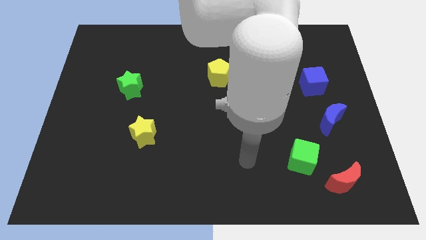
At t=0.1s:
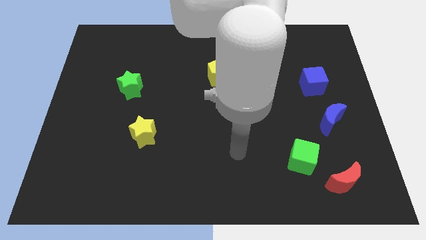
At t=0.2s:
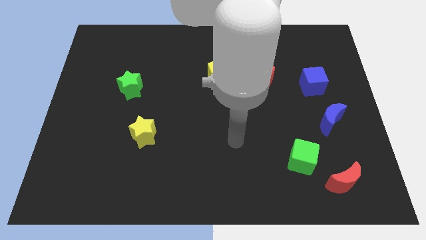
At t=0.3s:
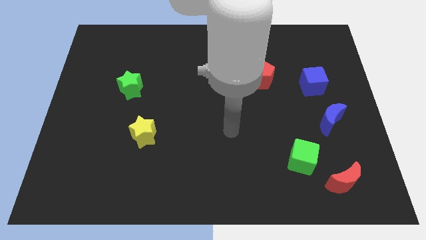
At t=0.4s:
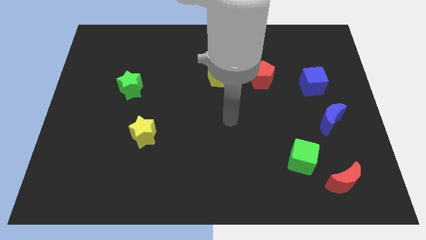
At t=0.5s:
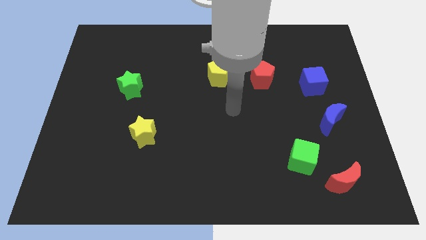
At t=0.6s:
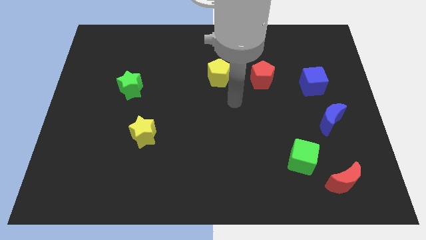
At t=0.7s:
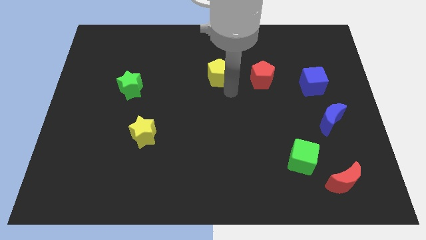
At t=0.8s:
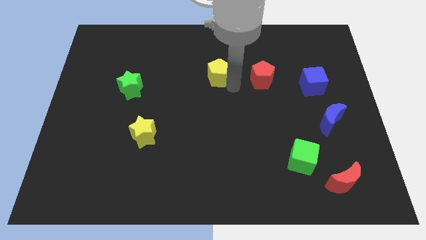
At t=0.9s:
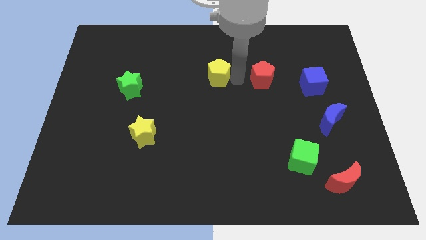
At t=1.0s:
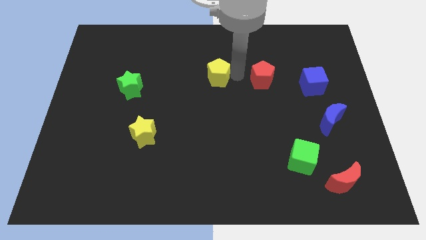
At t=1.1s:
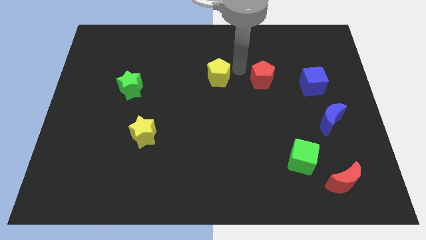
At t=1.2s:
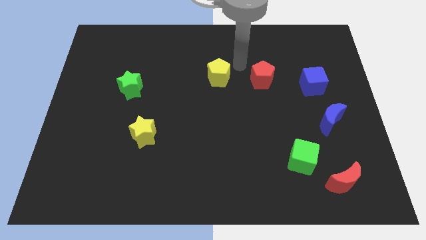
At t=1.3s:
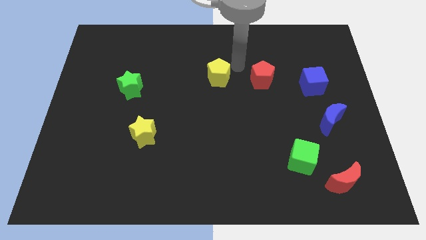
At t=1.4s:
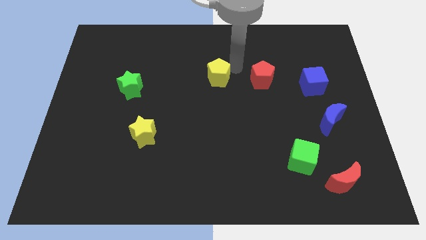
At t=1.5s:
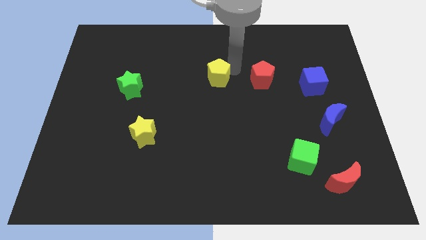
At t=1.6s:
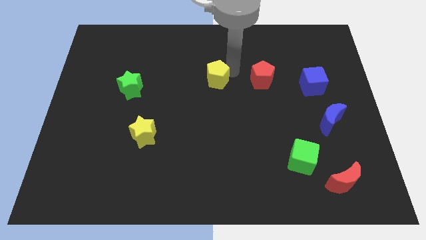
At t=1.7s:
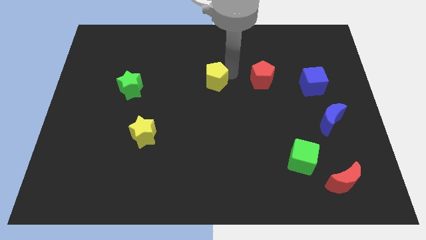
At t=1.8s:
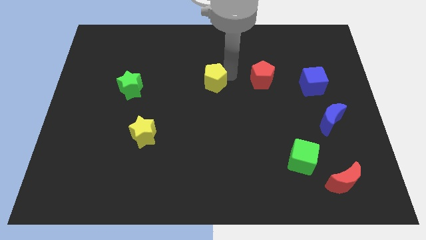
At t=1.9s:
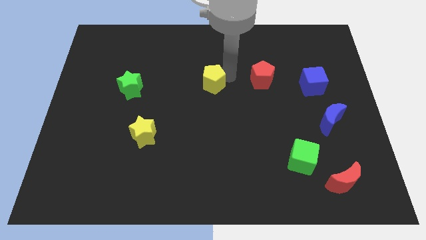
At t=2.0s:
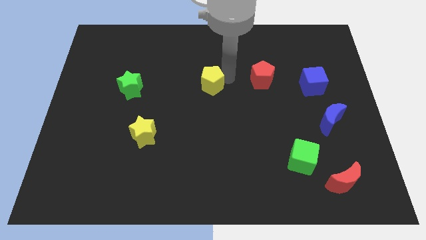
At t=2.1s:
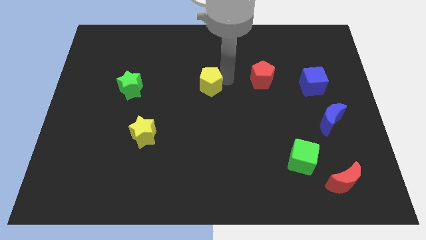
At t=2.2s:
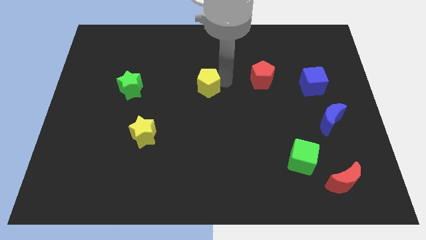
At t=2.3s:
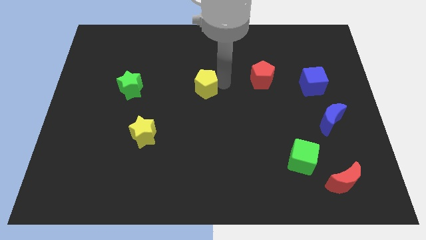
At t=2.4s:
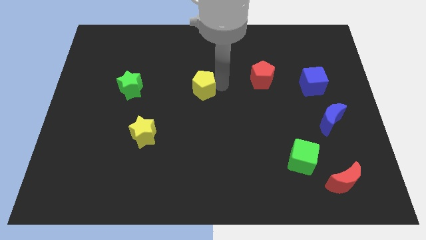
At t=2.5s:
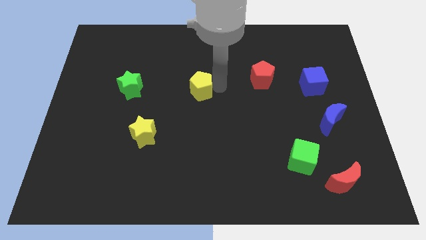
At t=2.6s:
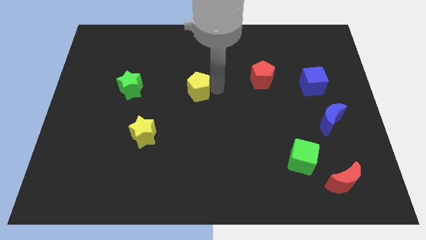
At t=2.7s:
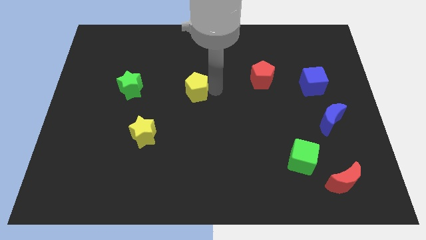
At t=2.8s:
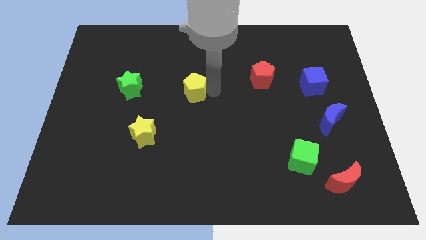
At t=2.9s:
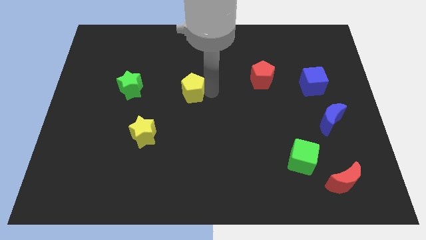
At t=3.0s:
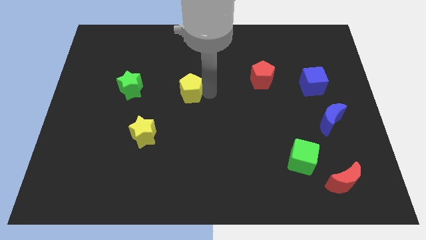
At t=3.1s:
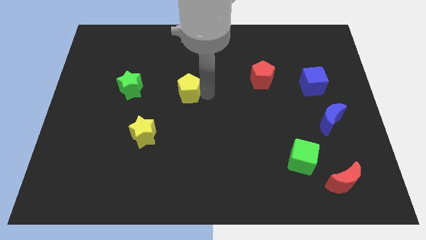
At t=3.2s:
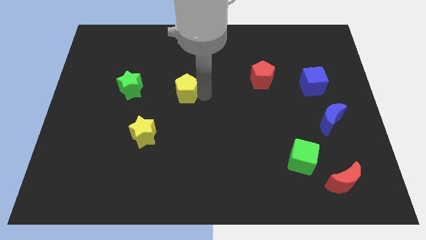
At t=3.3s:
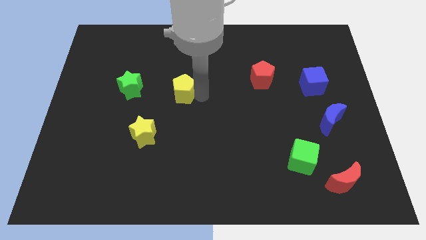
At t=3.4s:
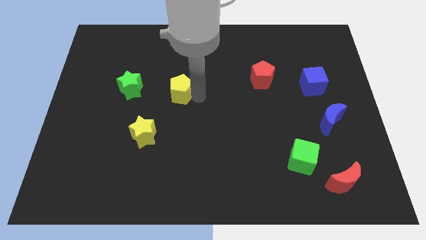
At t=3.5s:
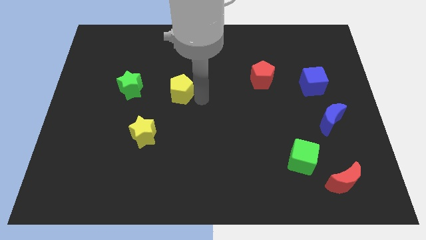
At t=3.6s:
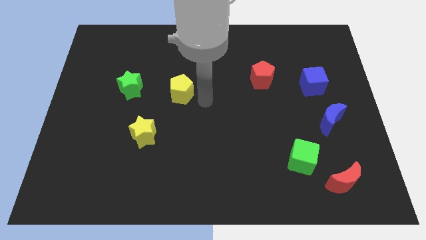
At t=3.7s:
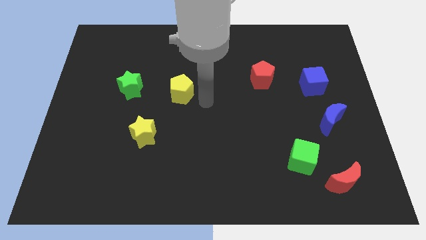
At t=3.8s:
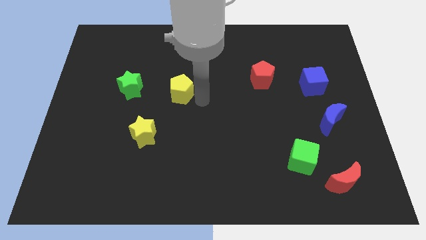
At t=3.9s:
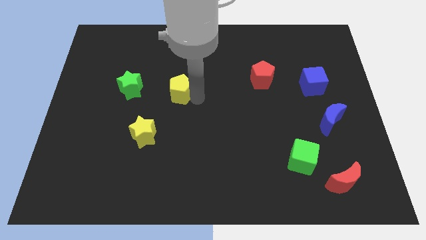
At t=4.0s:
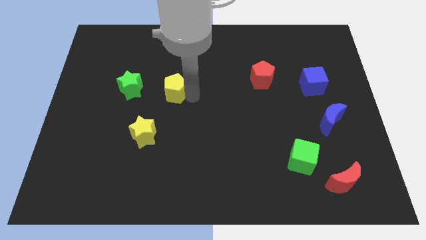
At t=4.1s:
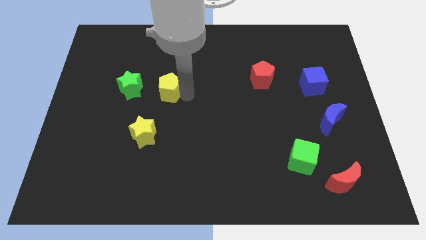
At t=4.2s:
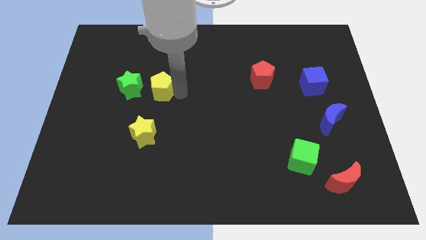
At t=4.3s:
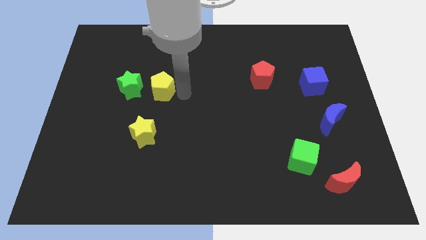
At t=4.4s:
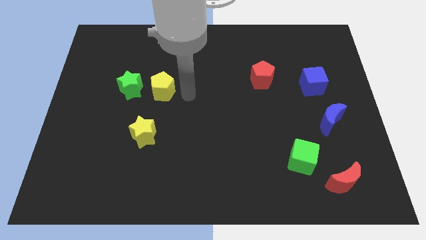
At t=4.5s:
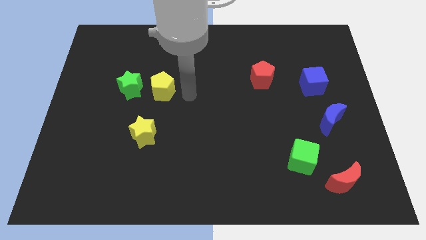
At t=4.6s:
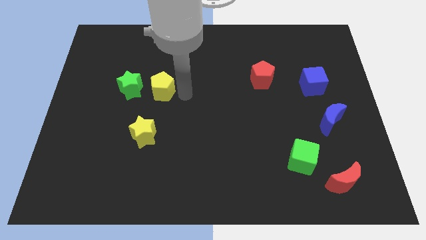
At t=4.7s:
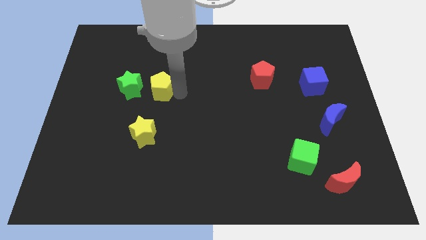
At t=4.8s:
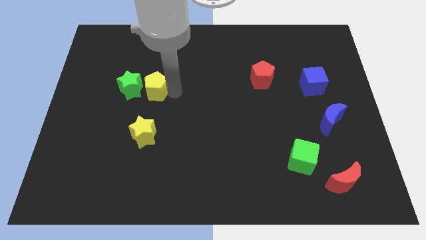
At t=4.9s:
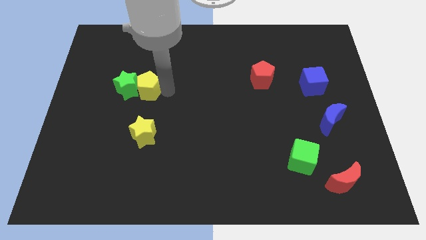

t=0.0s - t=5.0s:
push the yellow pentagon next to the green star

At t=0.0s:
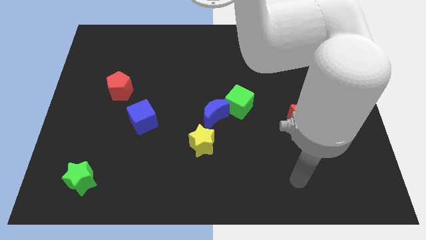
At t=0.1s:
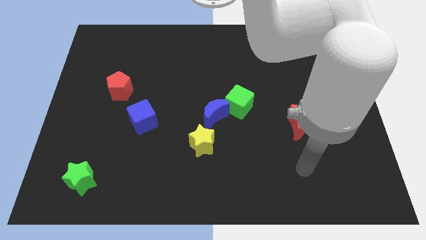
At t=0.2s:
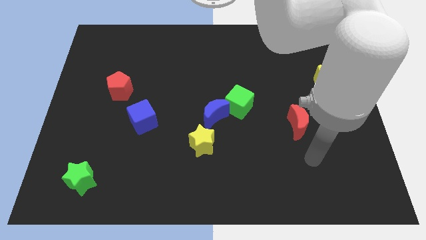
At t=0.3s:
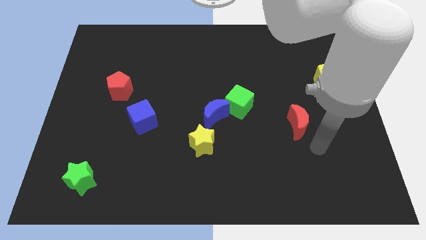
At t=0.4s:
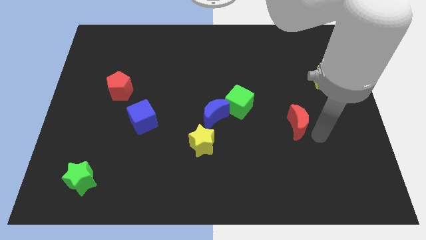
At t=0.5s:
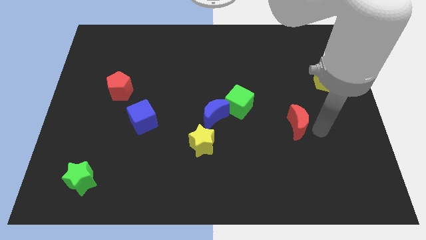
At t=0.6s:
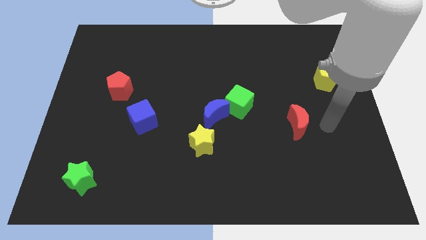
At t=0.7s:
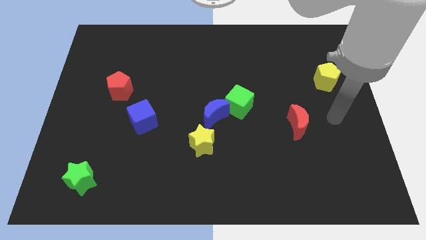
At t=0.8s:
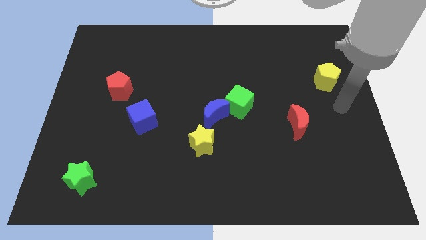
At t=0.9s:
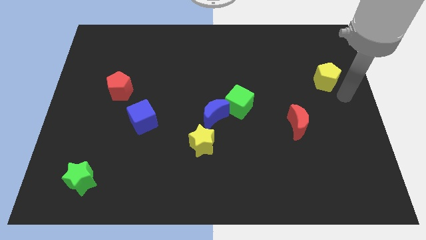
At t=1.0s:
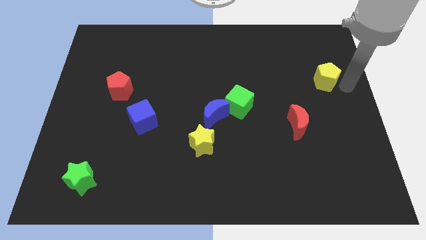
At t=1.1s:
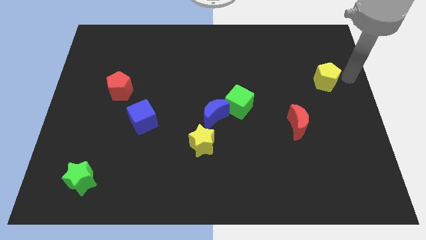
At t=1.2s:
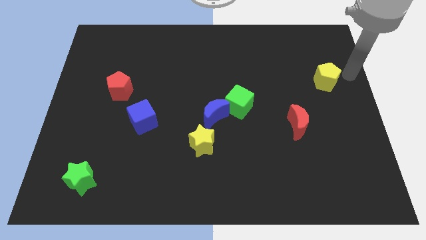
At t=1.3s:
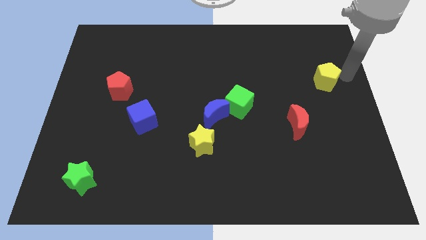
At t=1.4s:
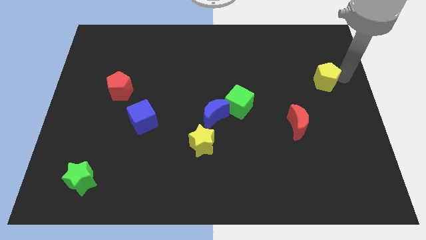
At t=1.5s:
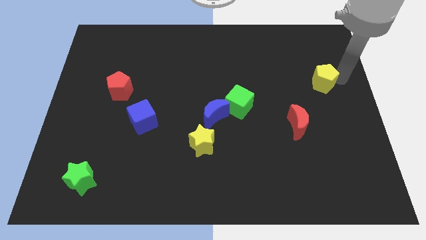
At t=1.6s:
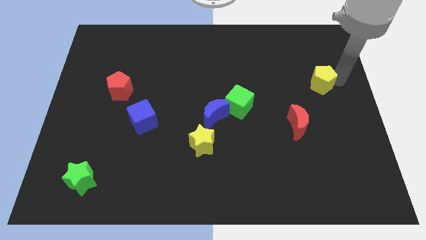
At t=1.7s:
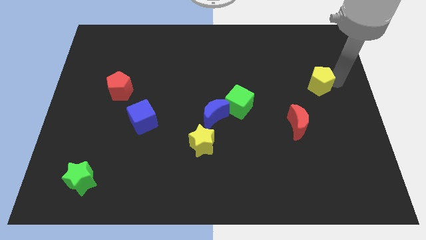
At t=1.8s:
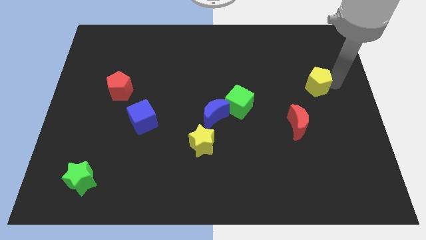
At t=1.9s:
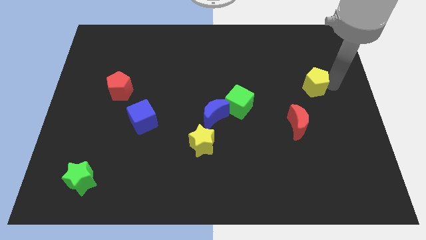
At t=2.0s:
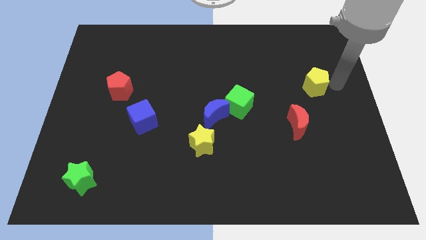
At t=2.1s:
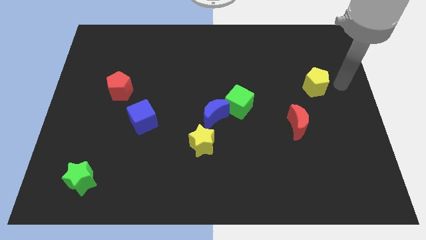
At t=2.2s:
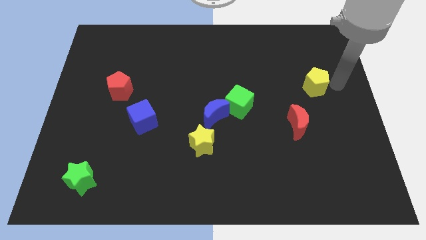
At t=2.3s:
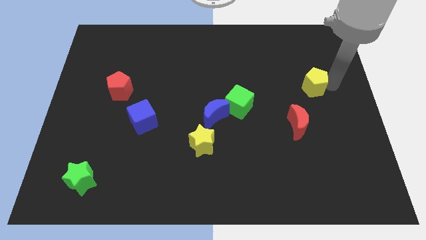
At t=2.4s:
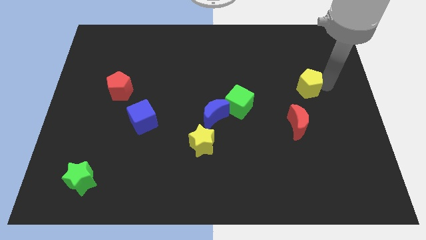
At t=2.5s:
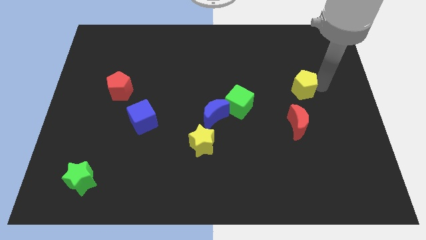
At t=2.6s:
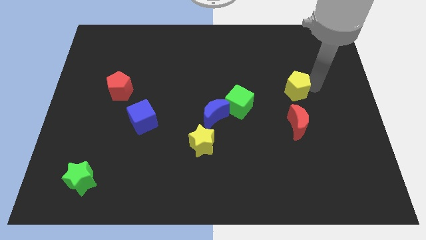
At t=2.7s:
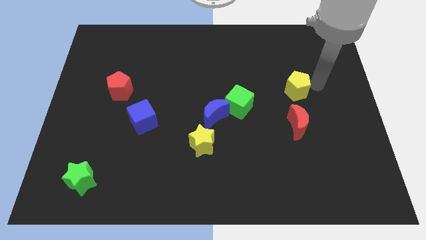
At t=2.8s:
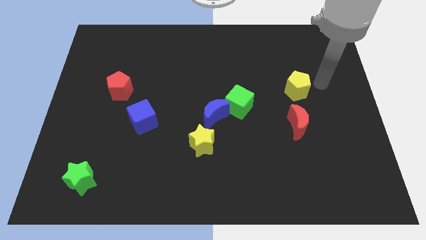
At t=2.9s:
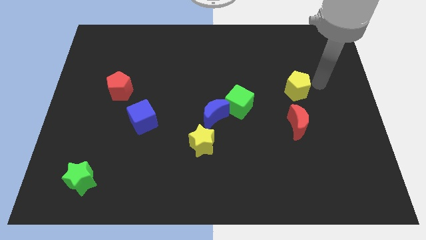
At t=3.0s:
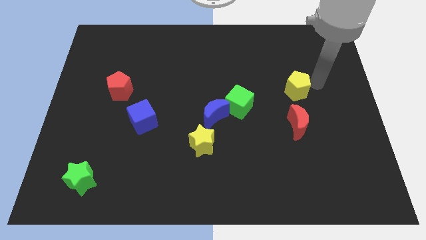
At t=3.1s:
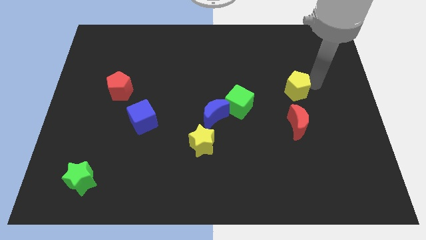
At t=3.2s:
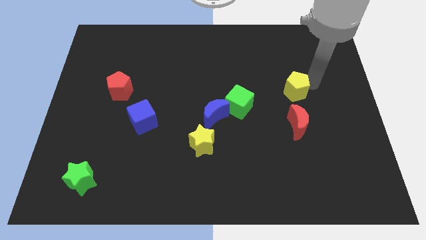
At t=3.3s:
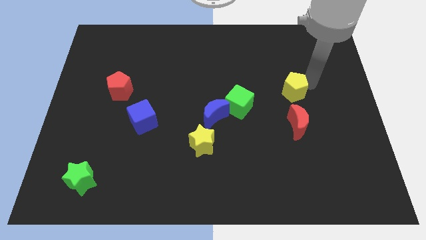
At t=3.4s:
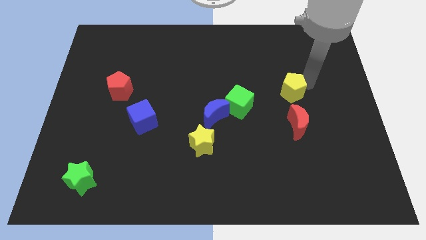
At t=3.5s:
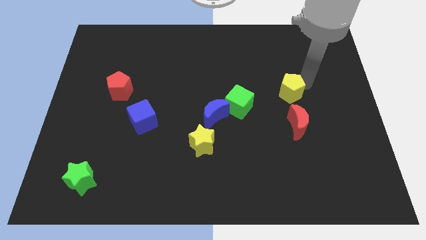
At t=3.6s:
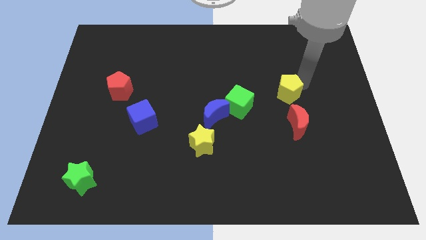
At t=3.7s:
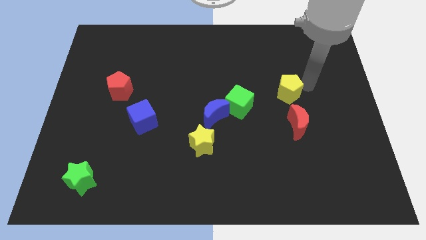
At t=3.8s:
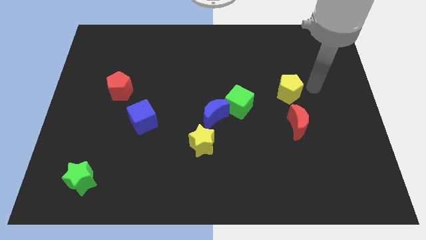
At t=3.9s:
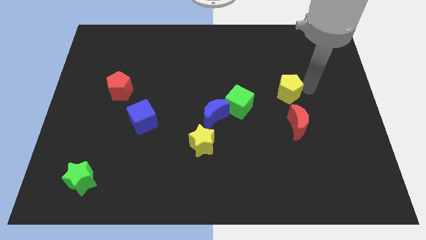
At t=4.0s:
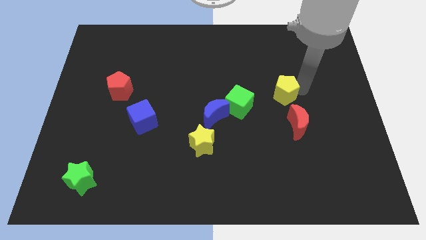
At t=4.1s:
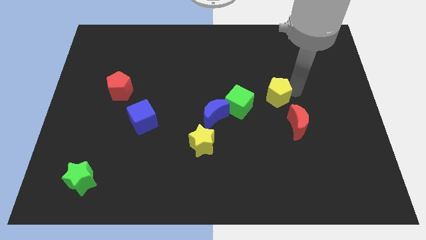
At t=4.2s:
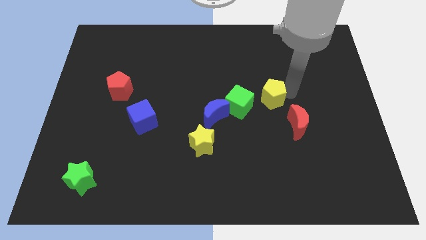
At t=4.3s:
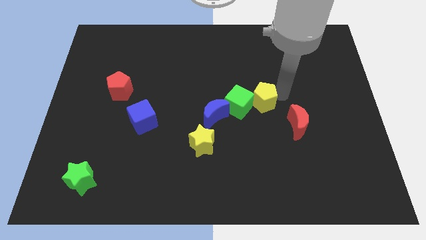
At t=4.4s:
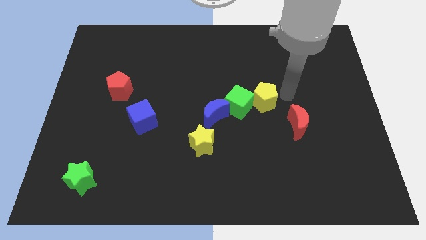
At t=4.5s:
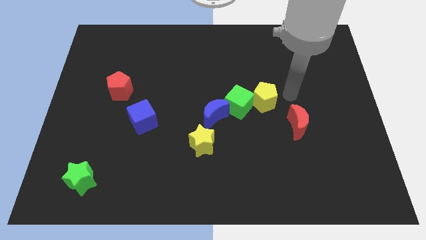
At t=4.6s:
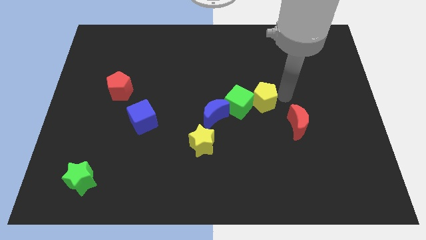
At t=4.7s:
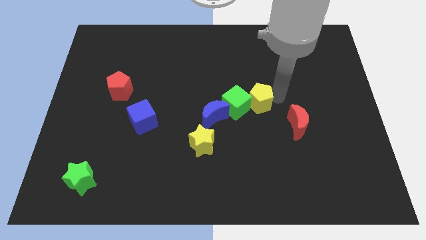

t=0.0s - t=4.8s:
put the yellow pentagon next to the green cube
